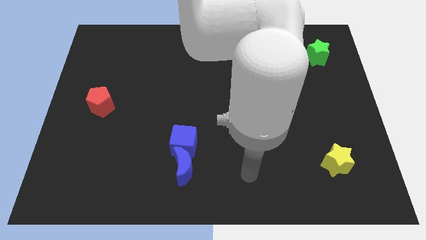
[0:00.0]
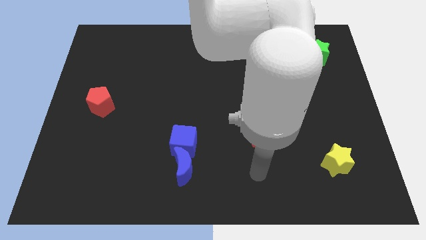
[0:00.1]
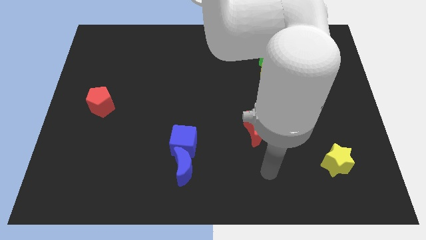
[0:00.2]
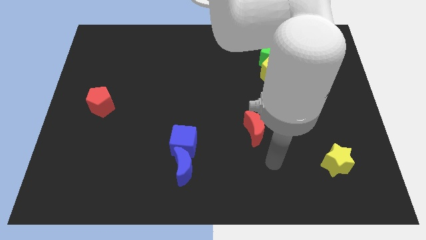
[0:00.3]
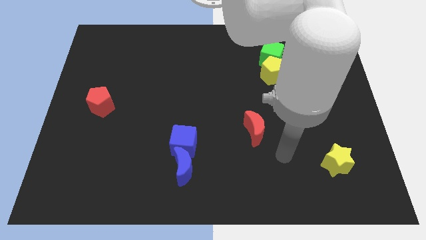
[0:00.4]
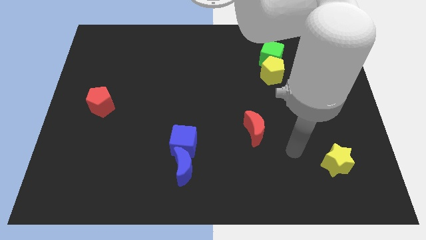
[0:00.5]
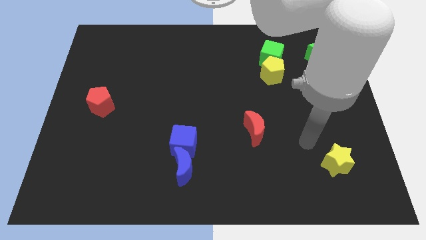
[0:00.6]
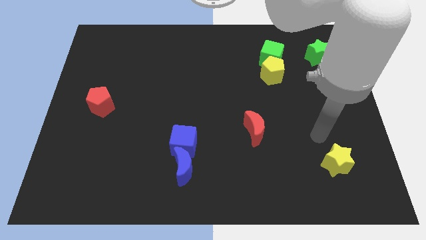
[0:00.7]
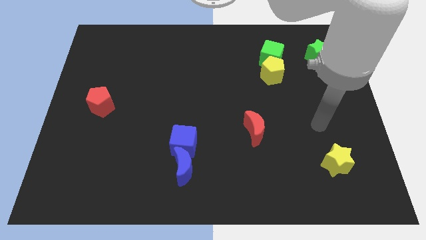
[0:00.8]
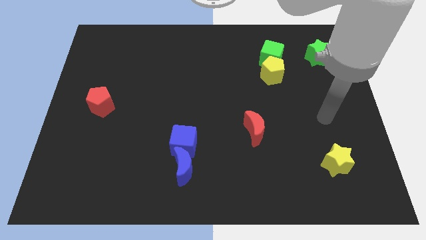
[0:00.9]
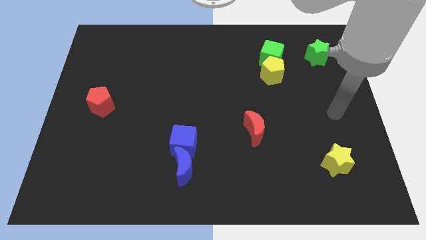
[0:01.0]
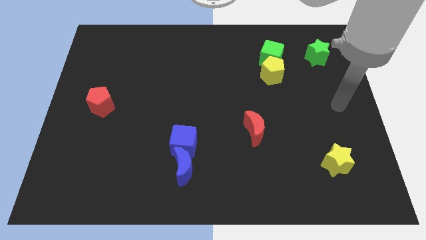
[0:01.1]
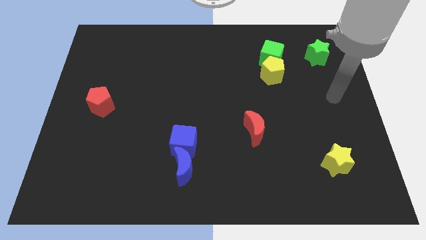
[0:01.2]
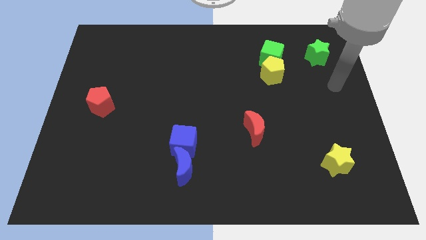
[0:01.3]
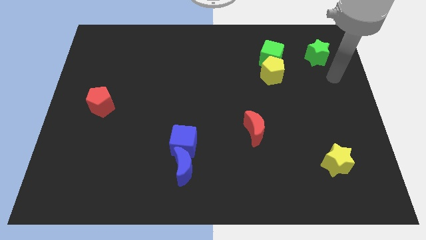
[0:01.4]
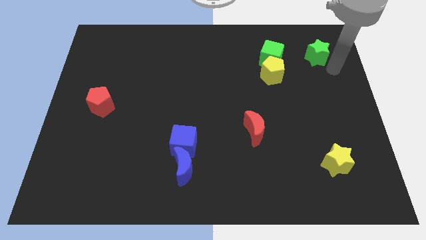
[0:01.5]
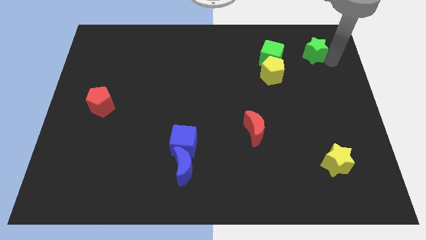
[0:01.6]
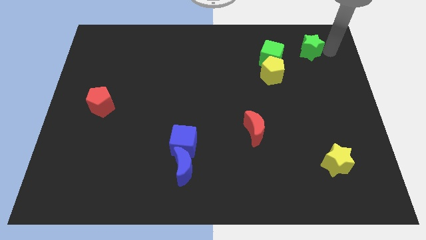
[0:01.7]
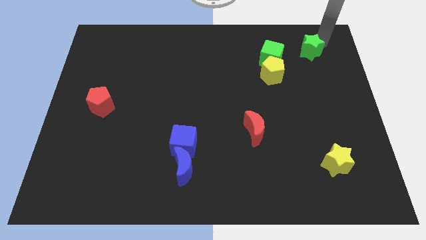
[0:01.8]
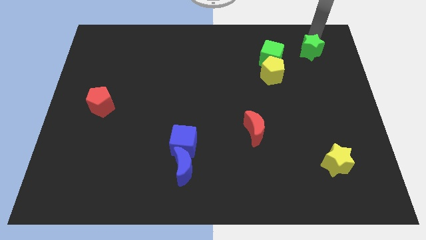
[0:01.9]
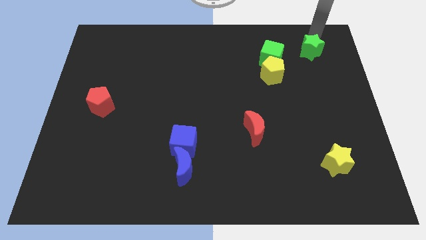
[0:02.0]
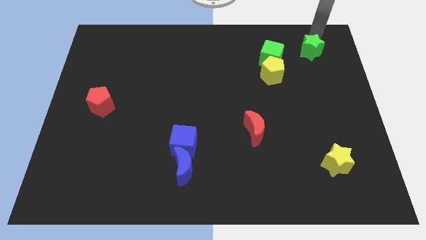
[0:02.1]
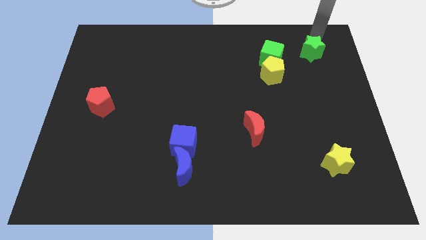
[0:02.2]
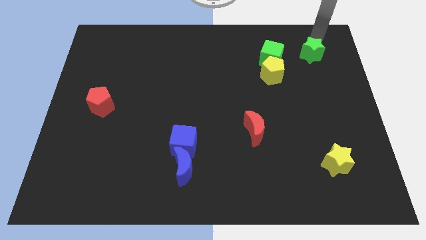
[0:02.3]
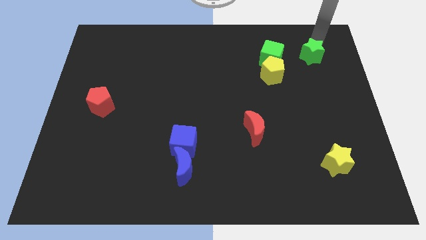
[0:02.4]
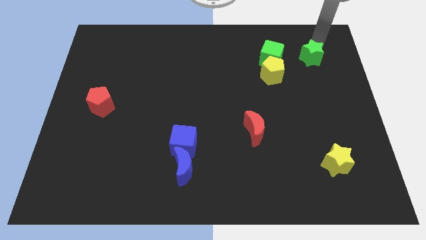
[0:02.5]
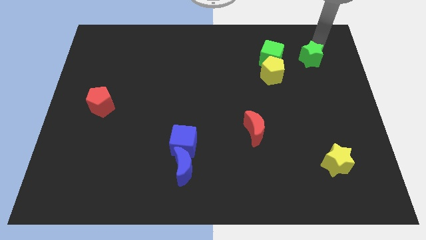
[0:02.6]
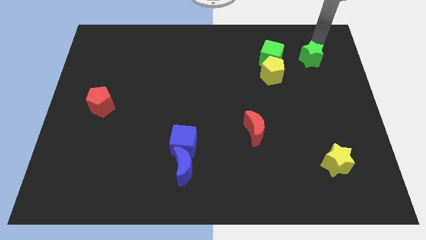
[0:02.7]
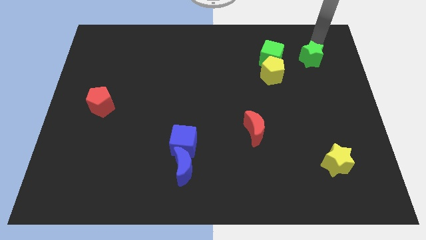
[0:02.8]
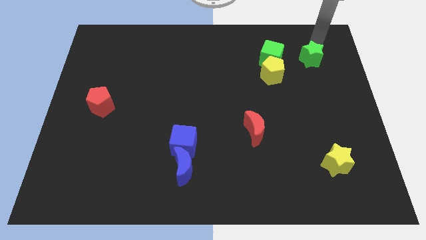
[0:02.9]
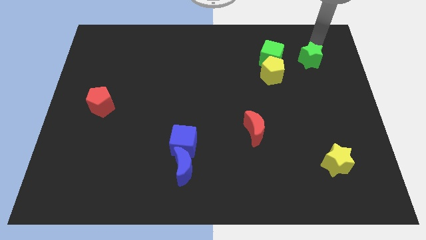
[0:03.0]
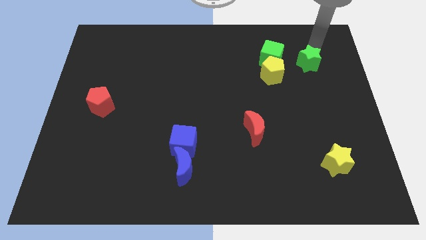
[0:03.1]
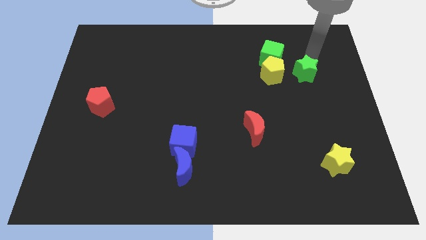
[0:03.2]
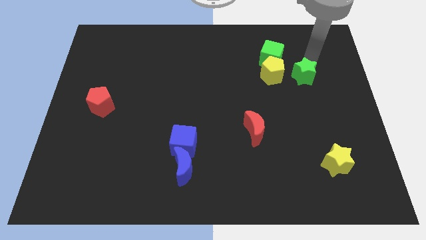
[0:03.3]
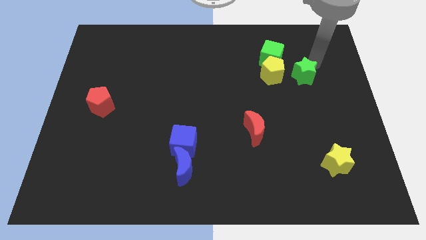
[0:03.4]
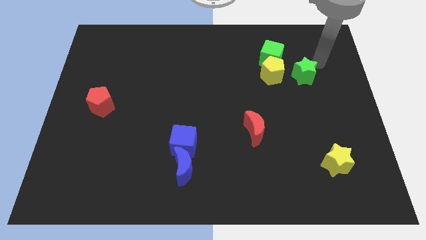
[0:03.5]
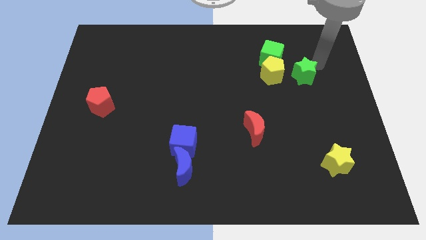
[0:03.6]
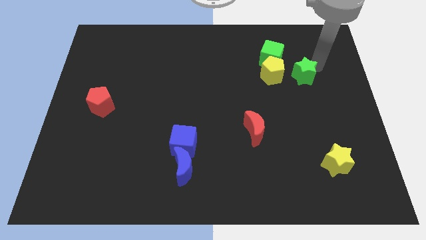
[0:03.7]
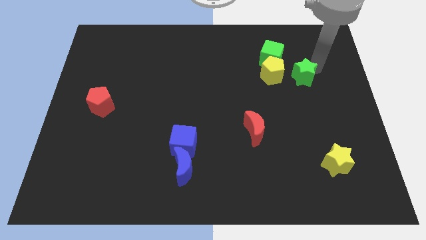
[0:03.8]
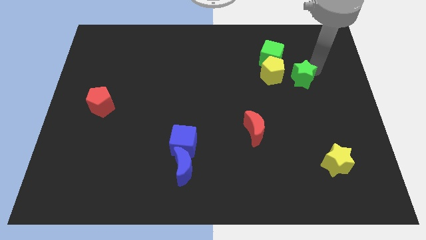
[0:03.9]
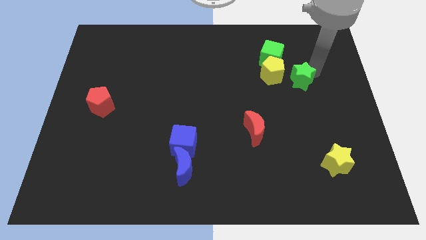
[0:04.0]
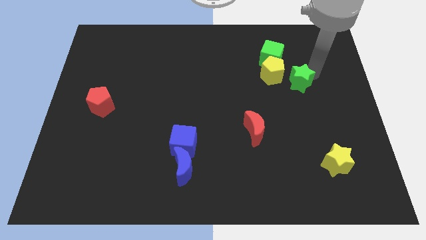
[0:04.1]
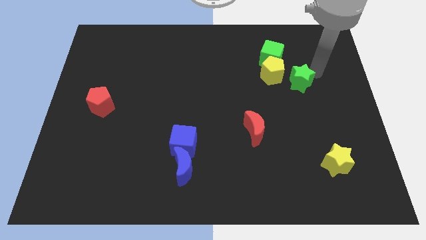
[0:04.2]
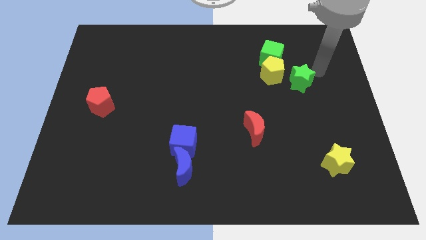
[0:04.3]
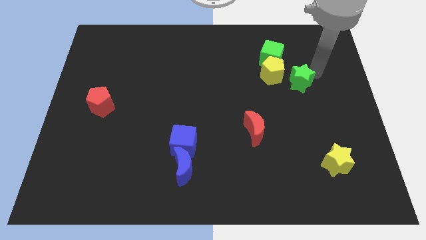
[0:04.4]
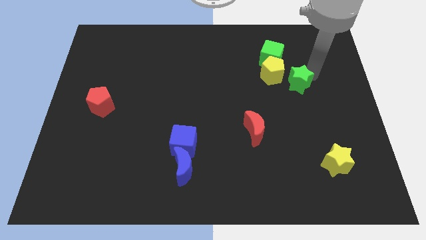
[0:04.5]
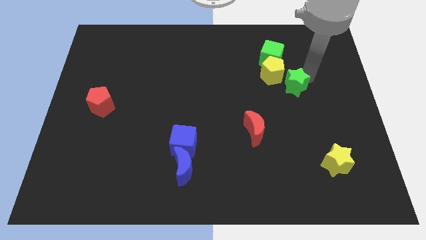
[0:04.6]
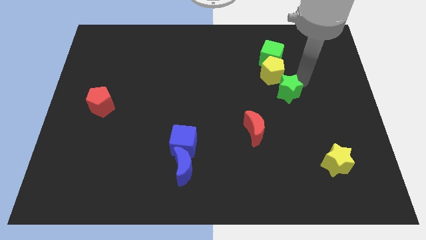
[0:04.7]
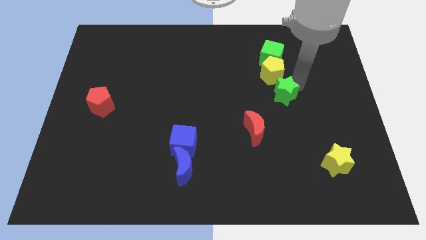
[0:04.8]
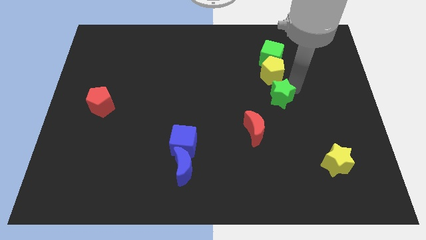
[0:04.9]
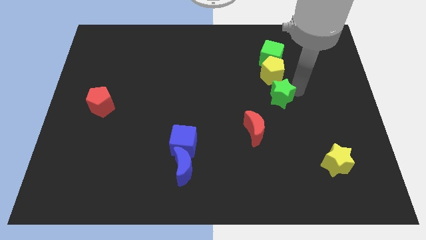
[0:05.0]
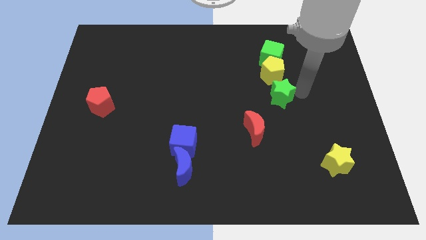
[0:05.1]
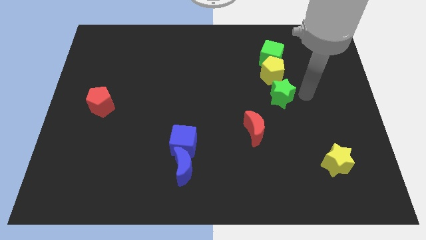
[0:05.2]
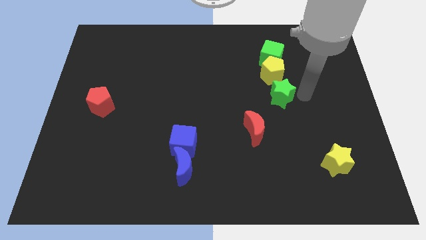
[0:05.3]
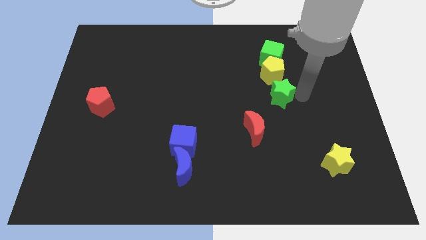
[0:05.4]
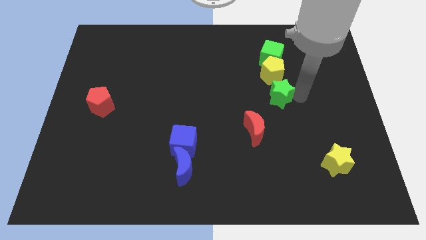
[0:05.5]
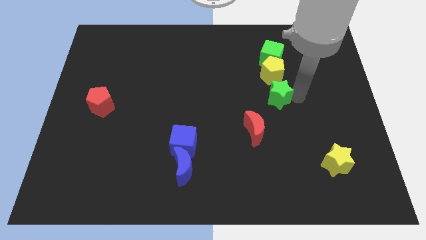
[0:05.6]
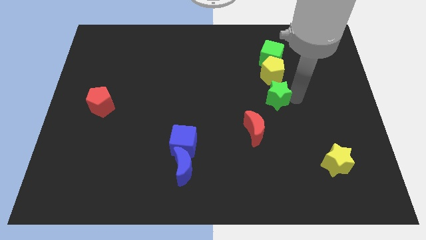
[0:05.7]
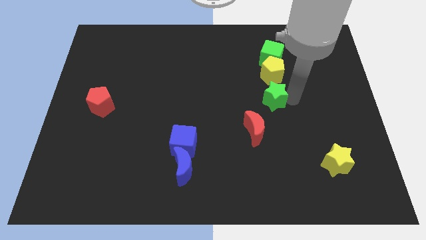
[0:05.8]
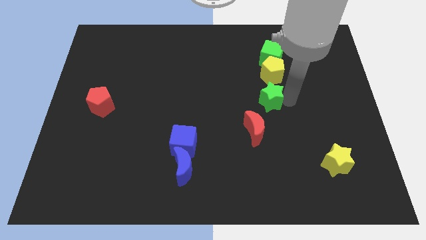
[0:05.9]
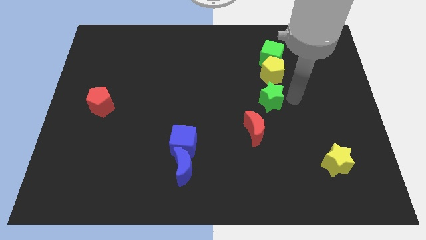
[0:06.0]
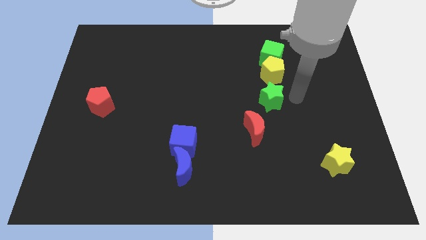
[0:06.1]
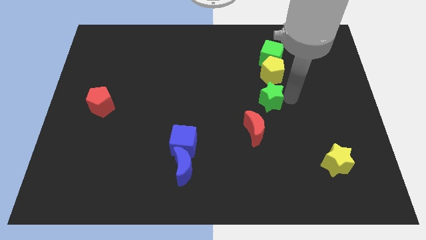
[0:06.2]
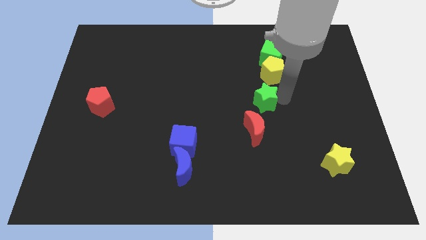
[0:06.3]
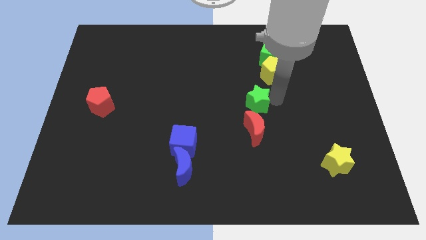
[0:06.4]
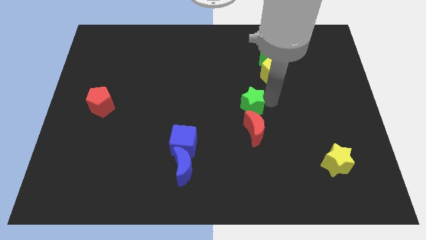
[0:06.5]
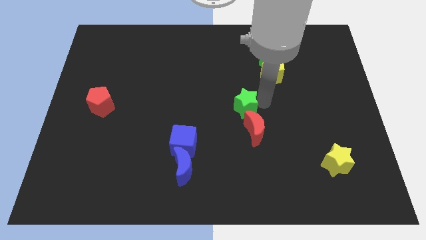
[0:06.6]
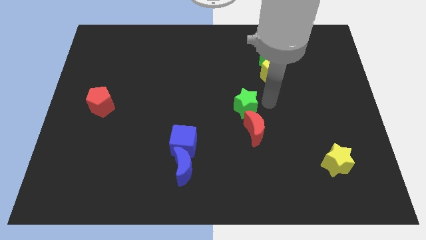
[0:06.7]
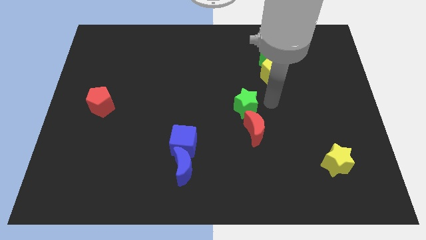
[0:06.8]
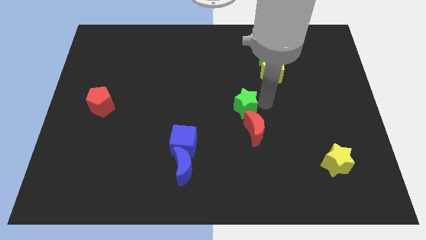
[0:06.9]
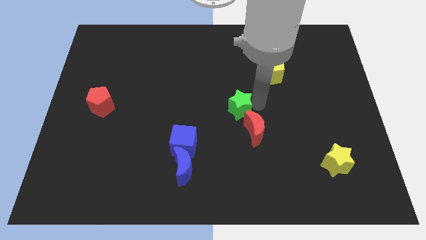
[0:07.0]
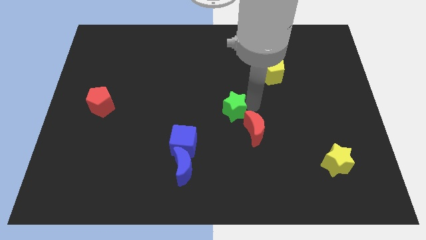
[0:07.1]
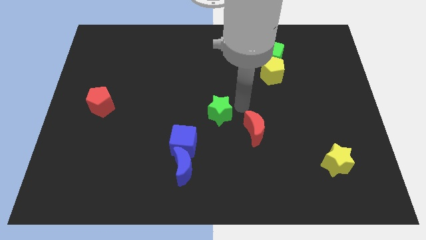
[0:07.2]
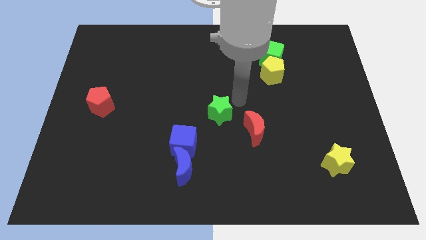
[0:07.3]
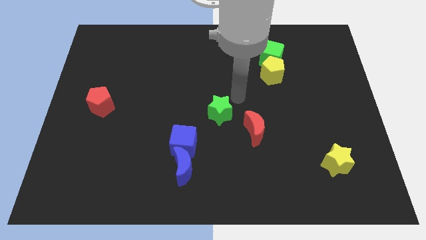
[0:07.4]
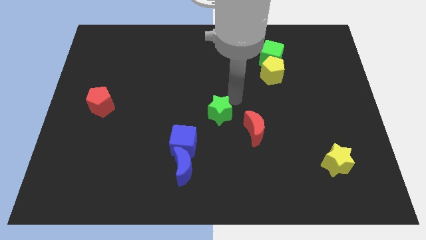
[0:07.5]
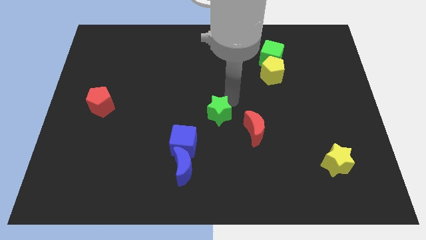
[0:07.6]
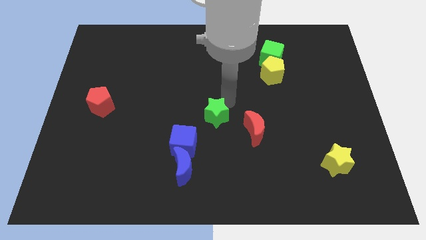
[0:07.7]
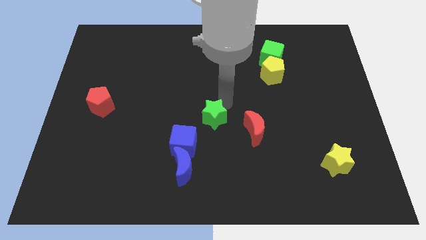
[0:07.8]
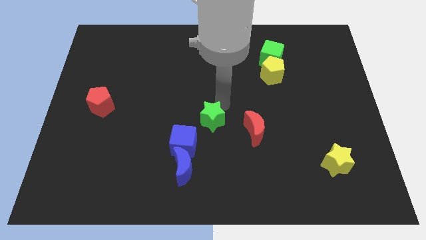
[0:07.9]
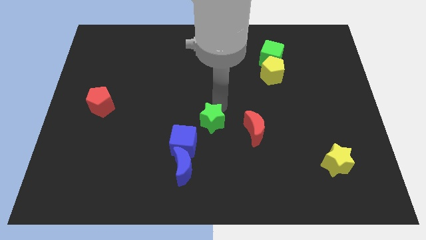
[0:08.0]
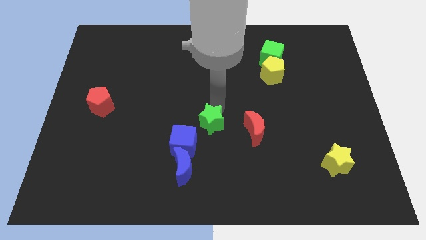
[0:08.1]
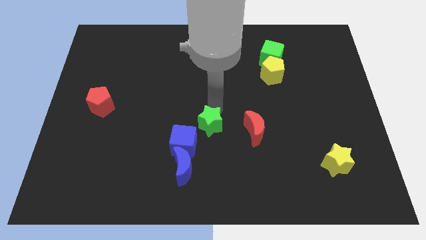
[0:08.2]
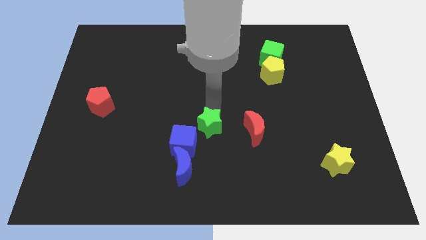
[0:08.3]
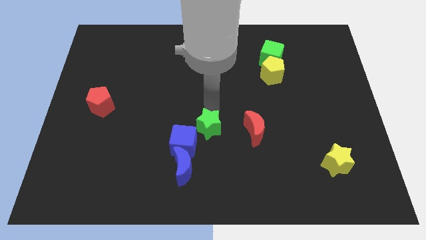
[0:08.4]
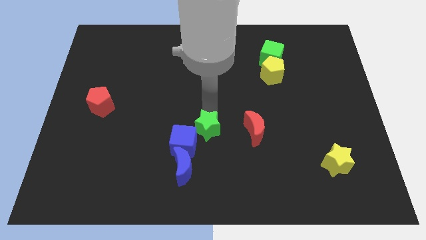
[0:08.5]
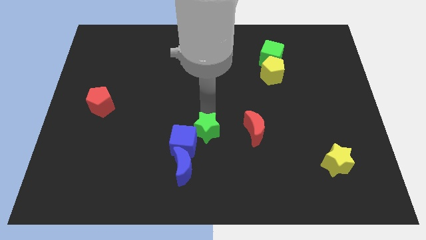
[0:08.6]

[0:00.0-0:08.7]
put the green star next to the blue cube
